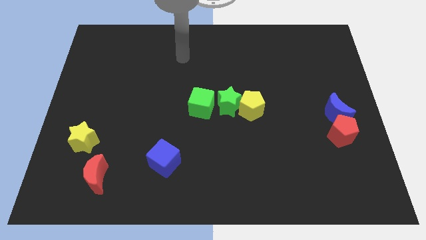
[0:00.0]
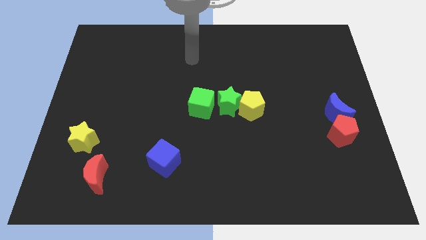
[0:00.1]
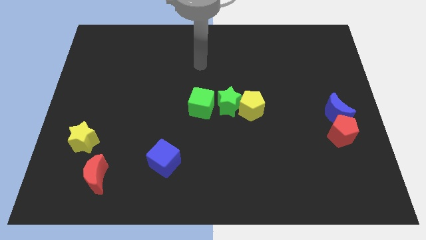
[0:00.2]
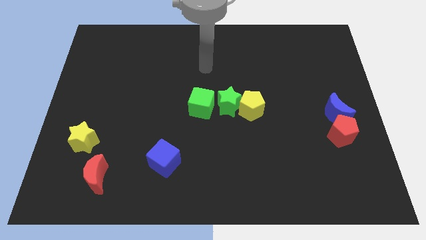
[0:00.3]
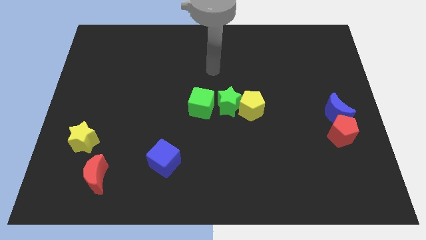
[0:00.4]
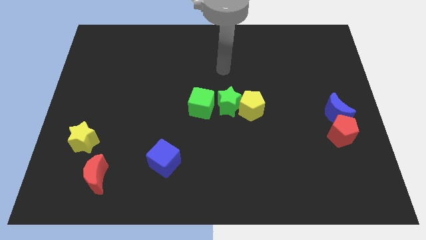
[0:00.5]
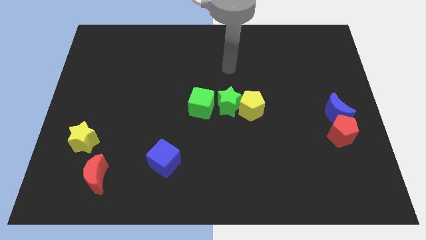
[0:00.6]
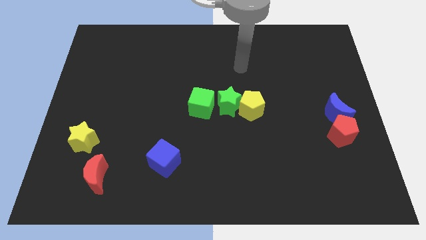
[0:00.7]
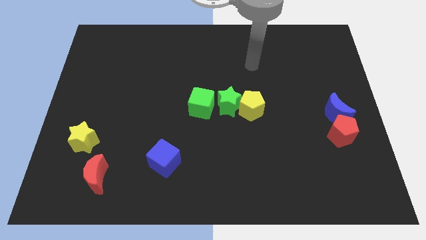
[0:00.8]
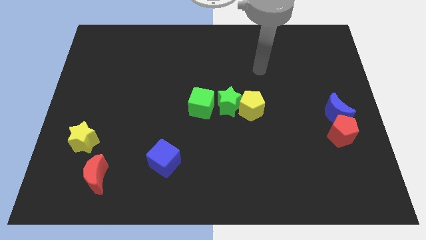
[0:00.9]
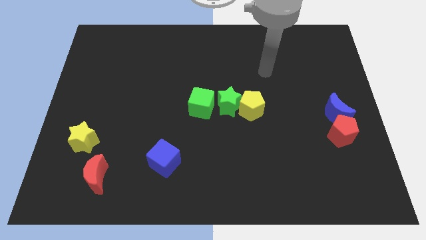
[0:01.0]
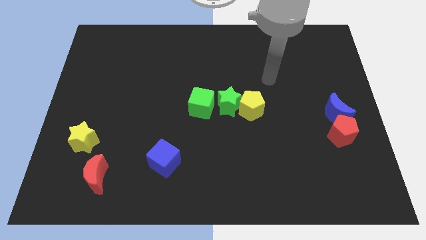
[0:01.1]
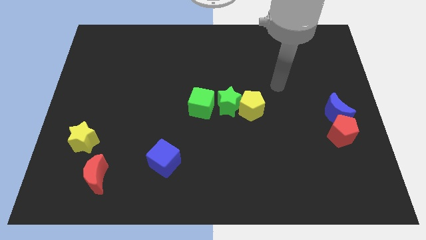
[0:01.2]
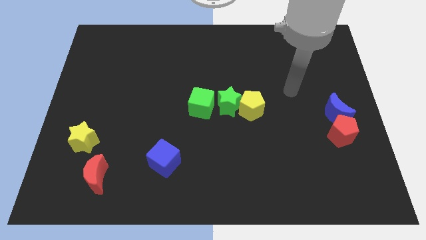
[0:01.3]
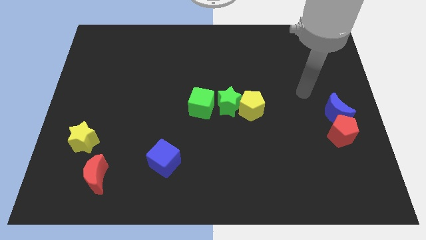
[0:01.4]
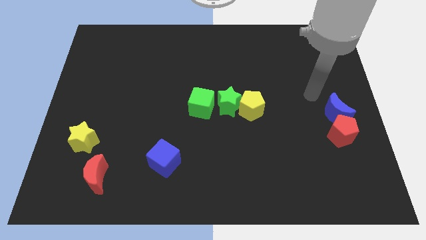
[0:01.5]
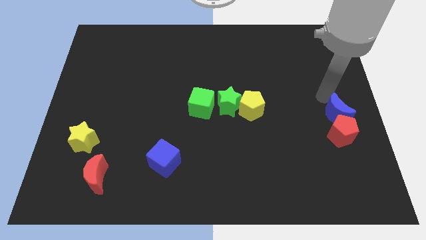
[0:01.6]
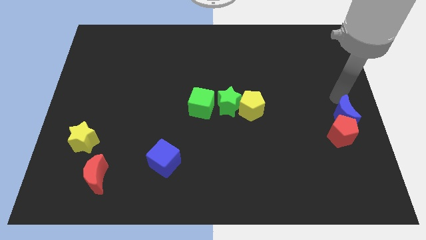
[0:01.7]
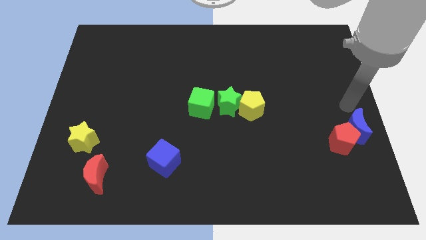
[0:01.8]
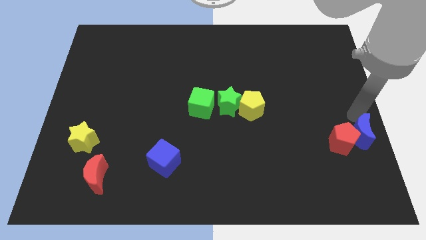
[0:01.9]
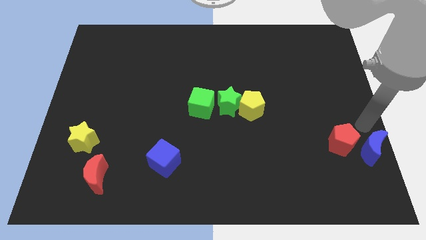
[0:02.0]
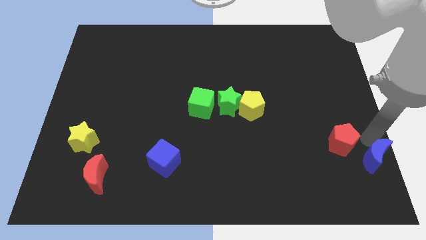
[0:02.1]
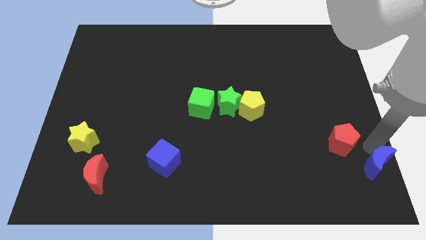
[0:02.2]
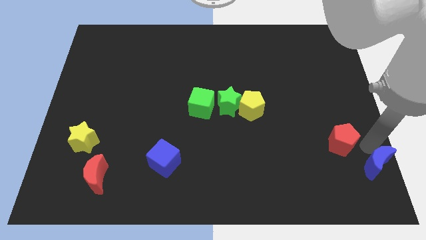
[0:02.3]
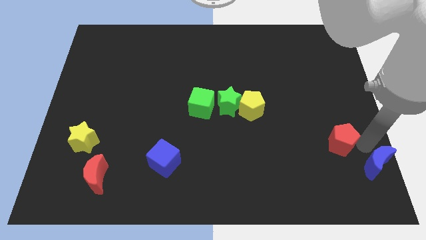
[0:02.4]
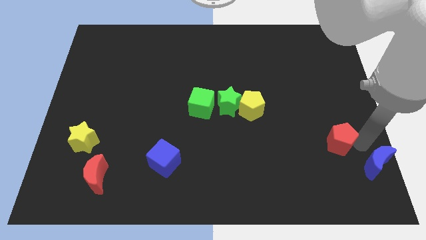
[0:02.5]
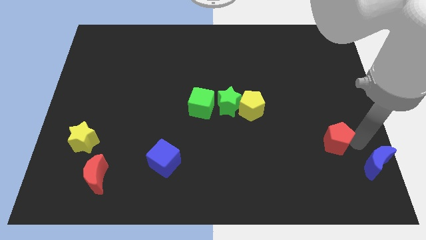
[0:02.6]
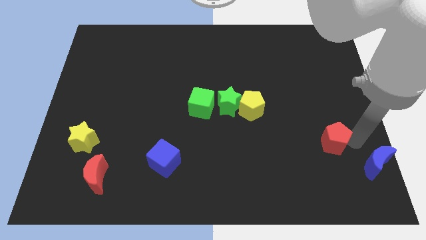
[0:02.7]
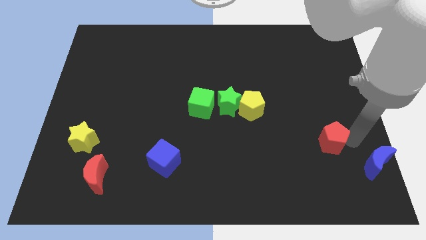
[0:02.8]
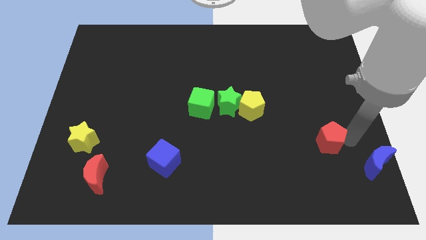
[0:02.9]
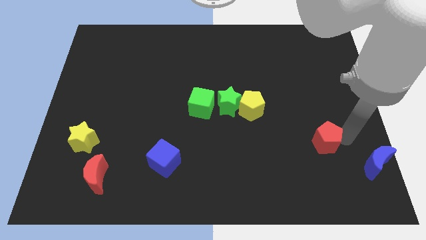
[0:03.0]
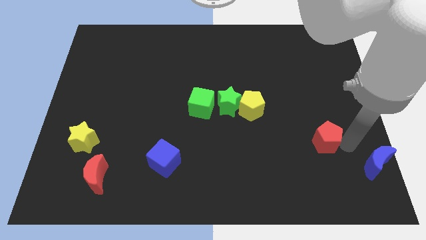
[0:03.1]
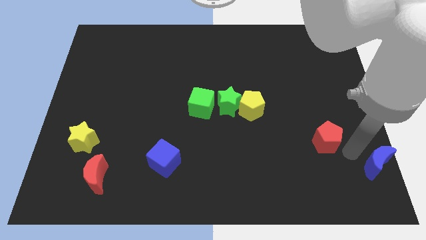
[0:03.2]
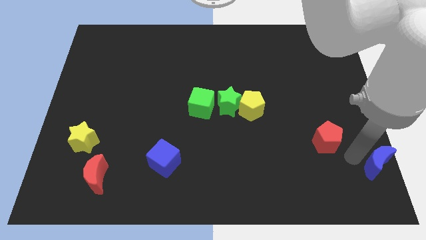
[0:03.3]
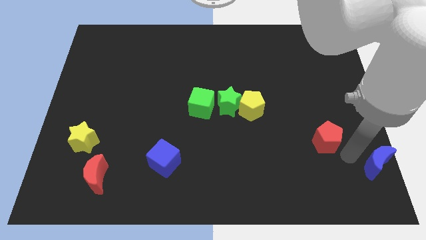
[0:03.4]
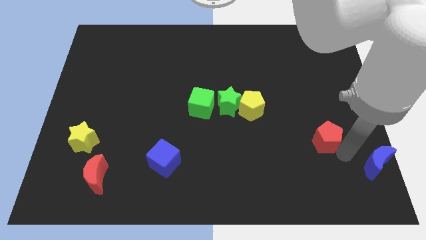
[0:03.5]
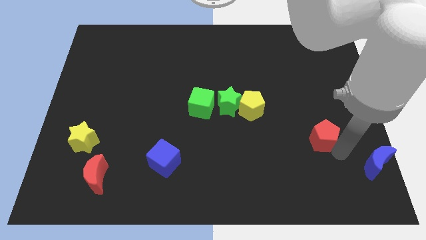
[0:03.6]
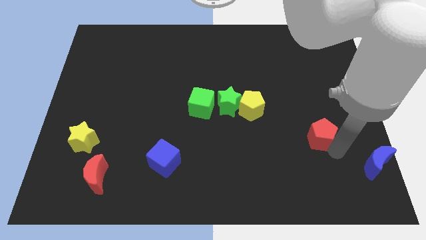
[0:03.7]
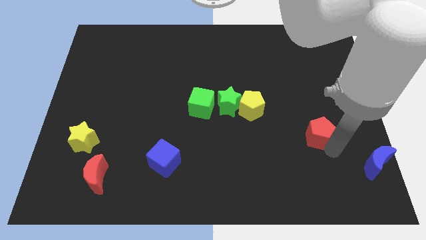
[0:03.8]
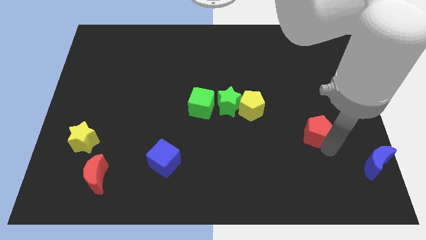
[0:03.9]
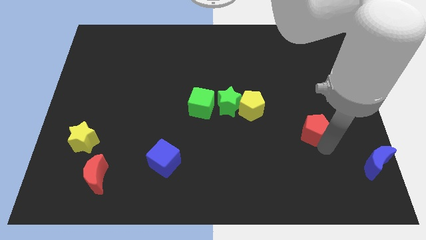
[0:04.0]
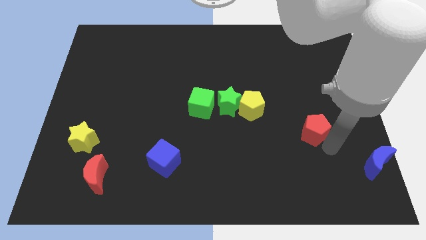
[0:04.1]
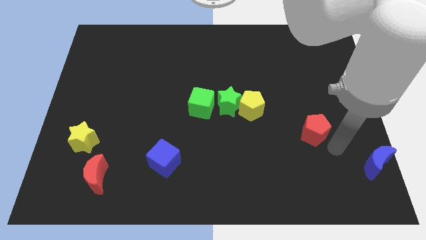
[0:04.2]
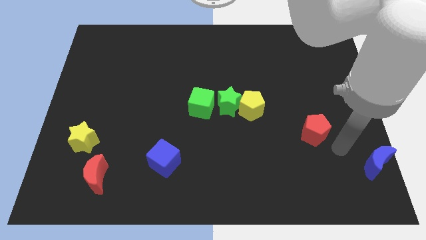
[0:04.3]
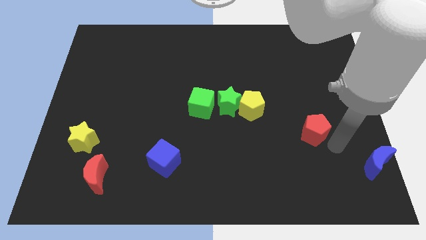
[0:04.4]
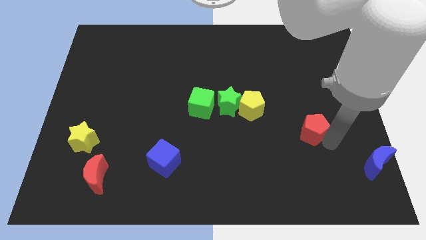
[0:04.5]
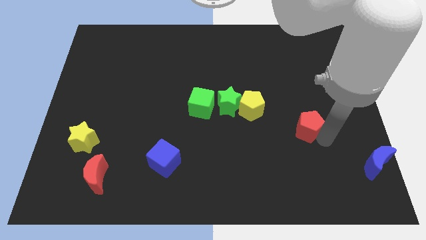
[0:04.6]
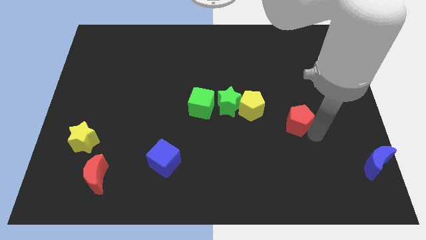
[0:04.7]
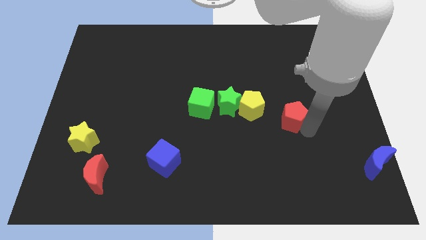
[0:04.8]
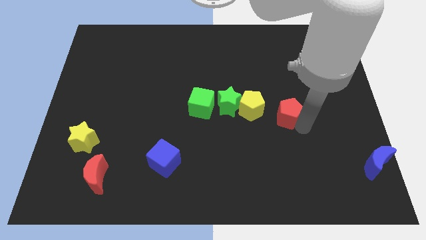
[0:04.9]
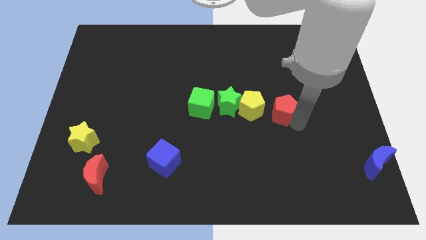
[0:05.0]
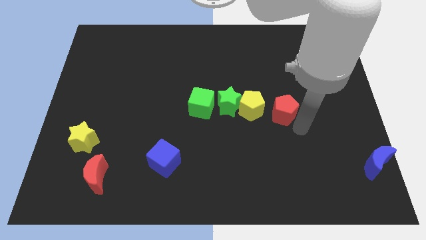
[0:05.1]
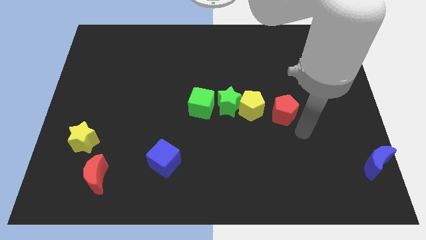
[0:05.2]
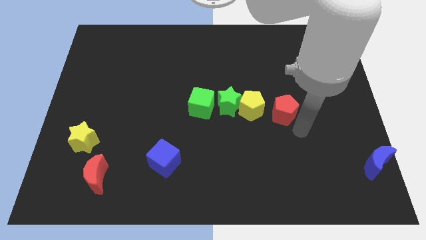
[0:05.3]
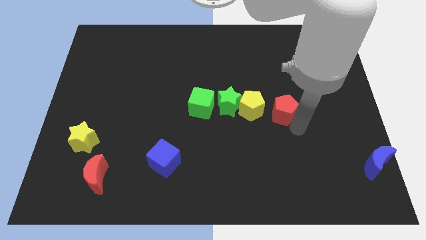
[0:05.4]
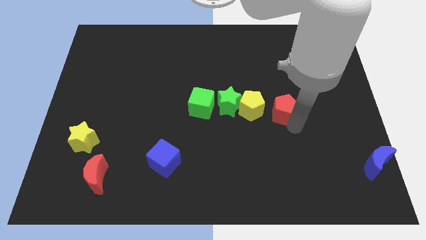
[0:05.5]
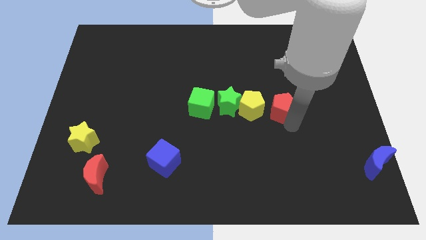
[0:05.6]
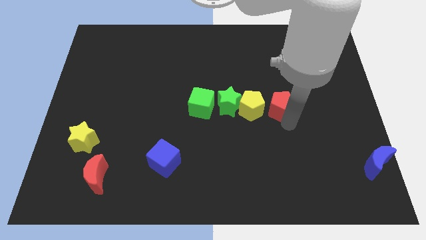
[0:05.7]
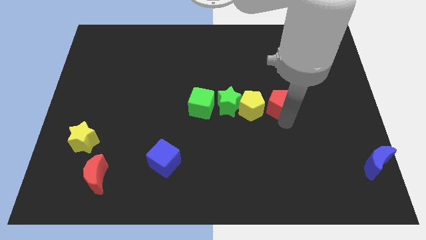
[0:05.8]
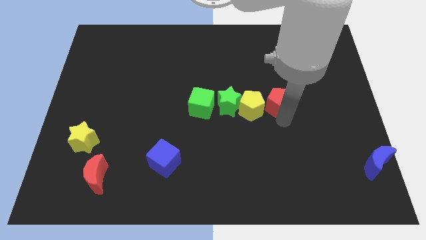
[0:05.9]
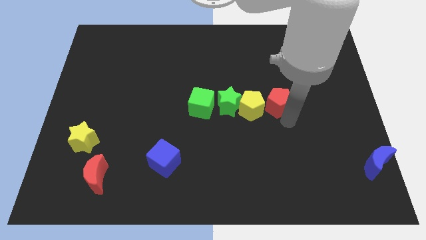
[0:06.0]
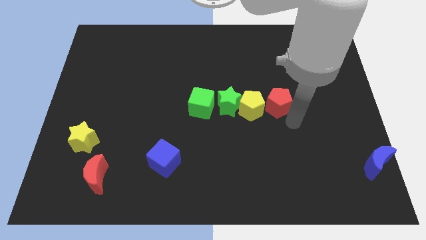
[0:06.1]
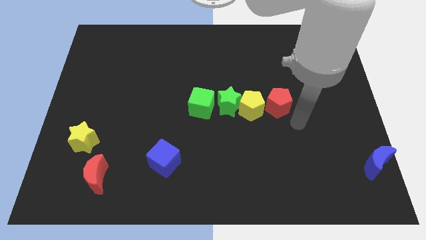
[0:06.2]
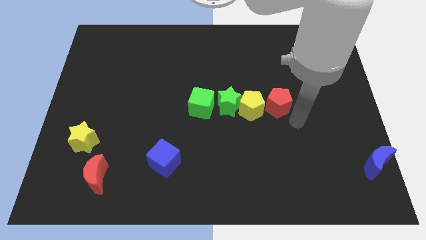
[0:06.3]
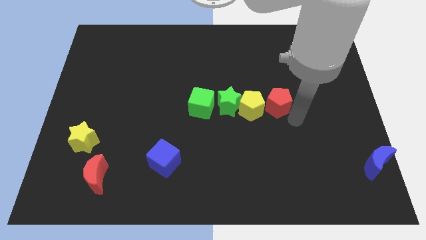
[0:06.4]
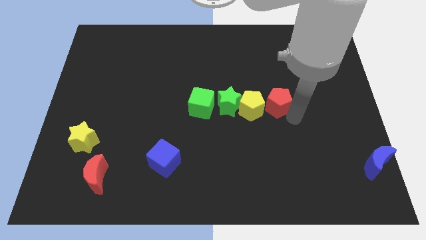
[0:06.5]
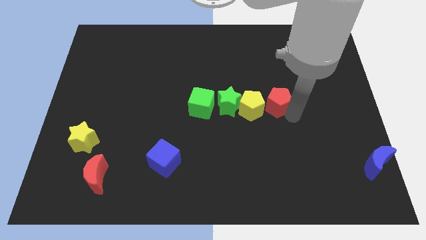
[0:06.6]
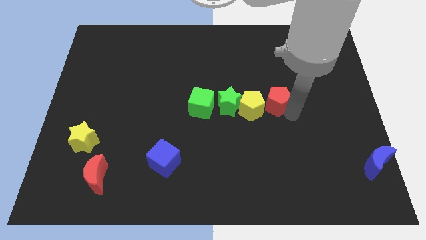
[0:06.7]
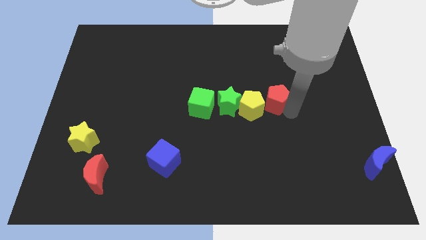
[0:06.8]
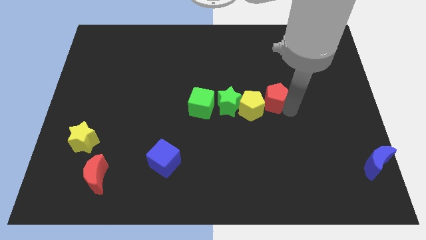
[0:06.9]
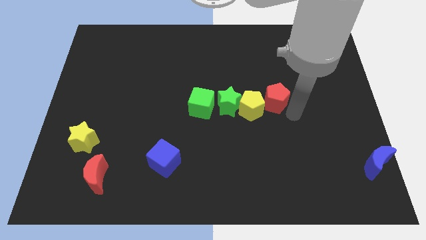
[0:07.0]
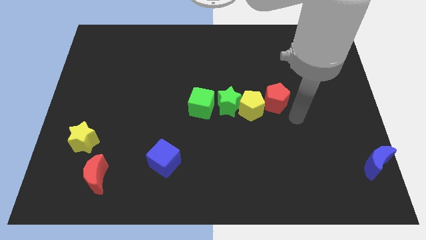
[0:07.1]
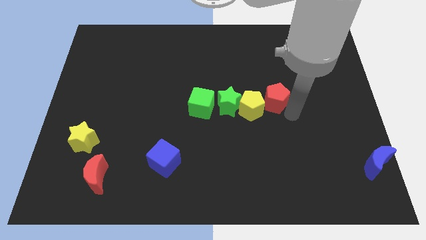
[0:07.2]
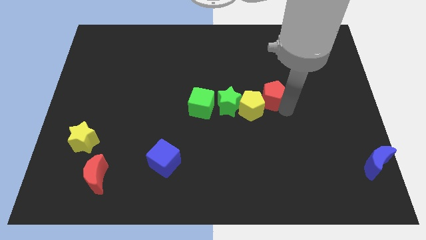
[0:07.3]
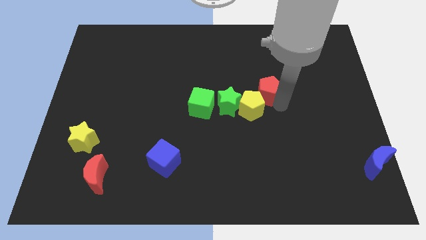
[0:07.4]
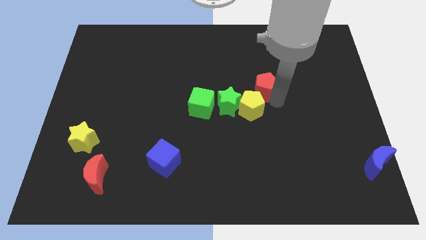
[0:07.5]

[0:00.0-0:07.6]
slide the red pentagon upwards and to the left diagonally
